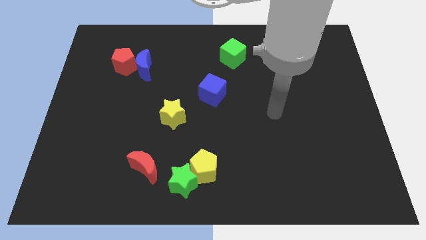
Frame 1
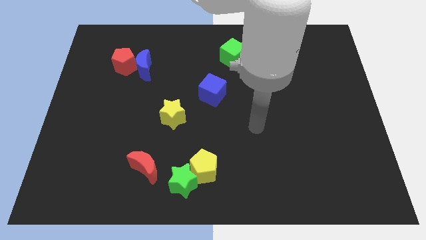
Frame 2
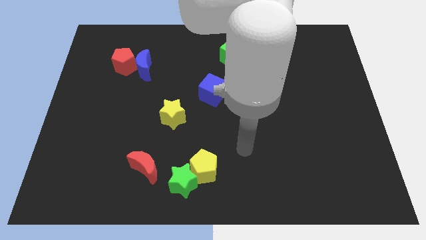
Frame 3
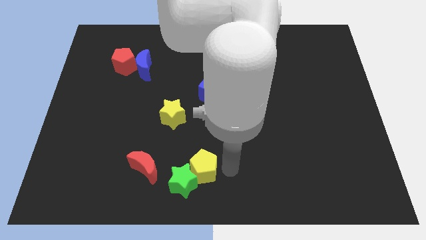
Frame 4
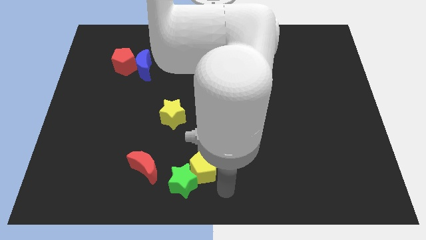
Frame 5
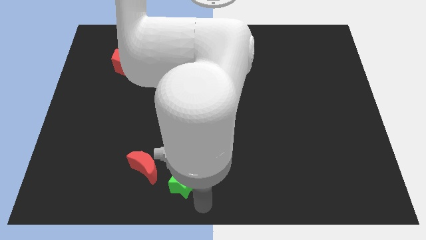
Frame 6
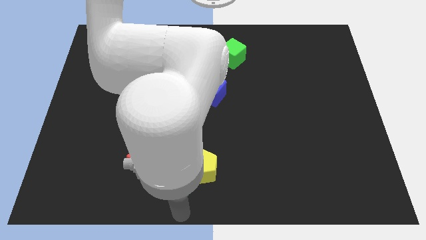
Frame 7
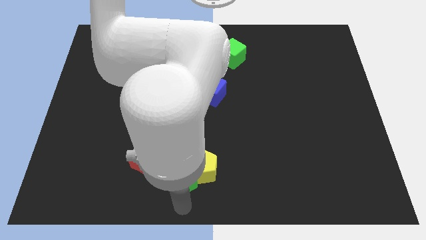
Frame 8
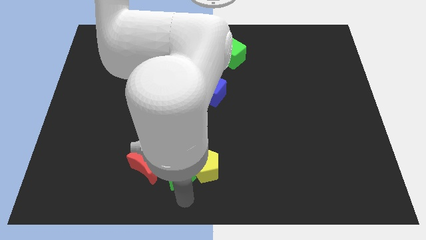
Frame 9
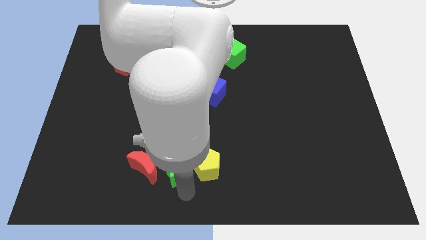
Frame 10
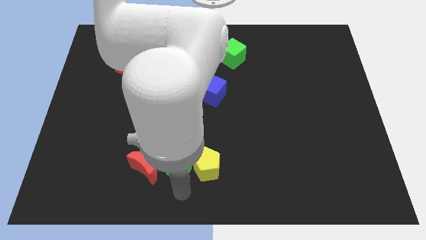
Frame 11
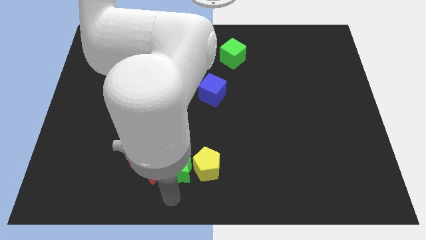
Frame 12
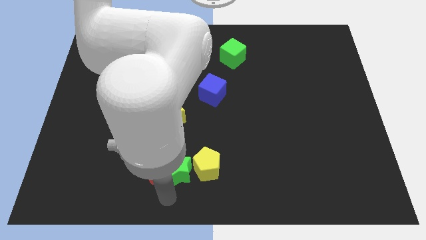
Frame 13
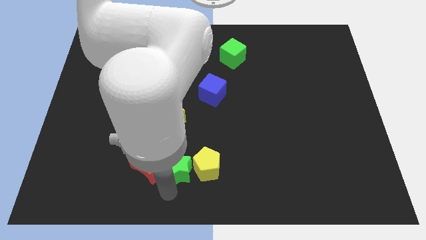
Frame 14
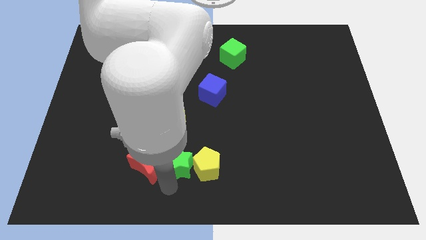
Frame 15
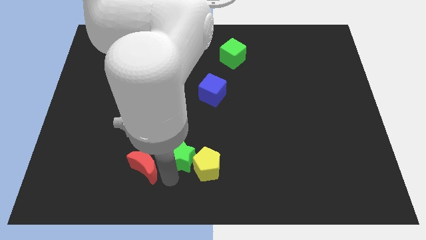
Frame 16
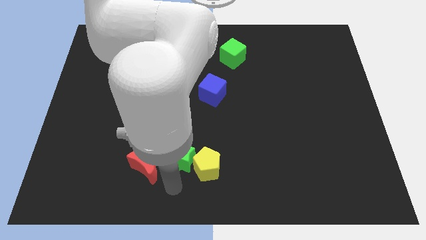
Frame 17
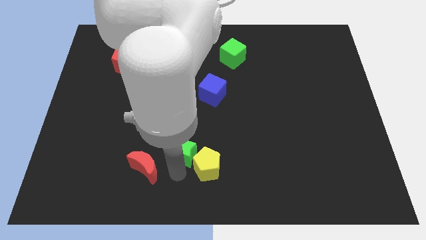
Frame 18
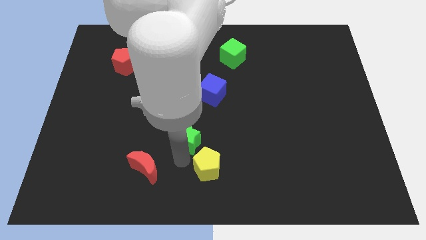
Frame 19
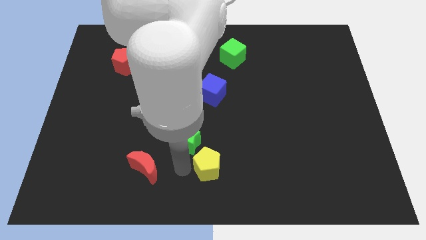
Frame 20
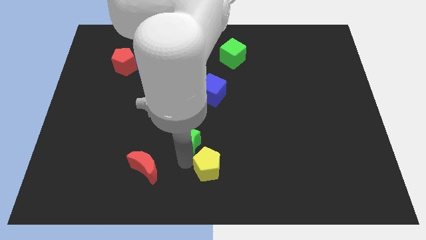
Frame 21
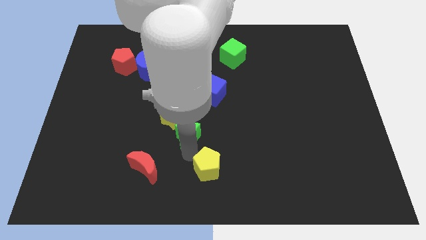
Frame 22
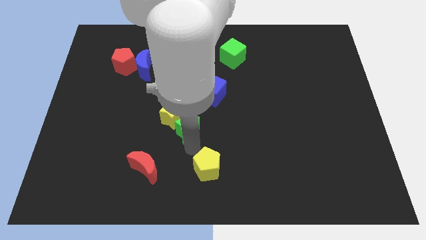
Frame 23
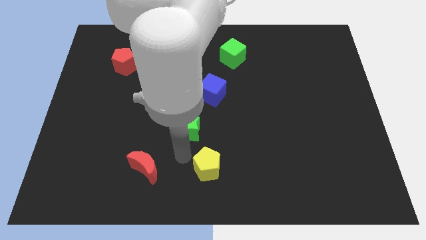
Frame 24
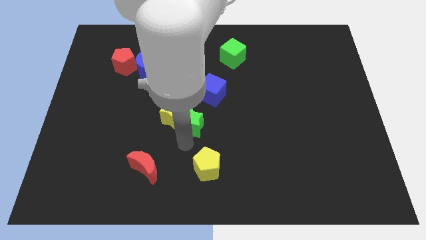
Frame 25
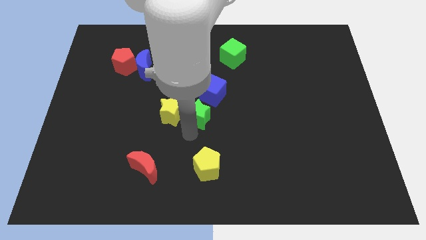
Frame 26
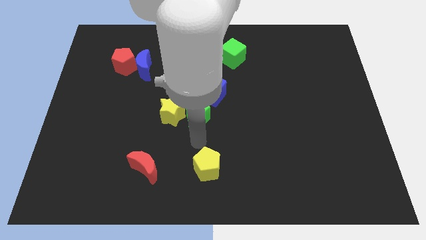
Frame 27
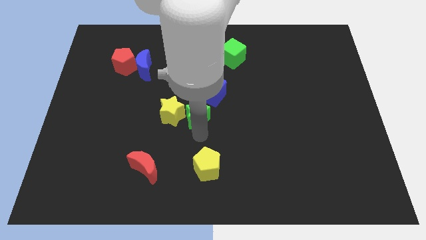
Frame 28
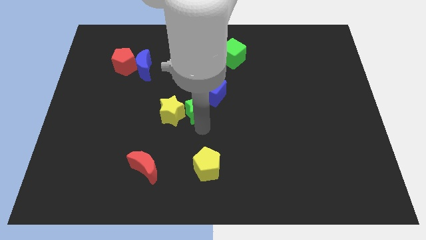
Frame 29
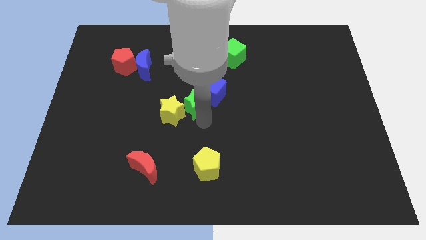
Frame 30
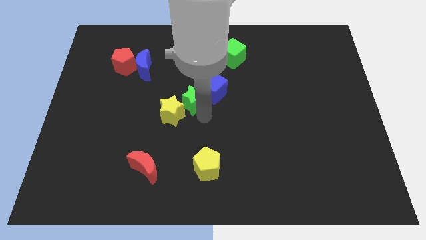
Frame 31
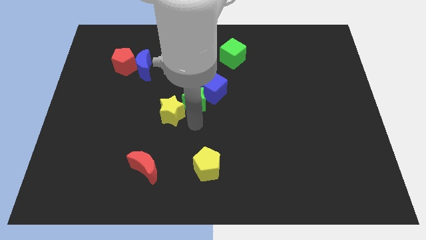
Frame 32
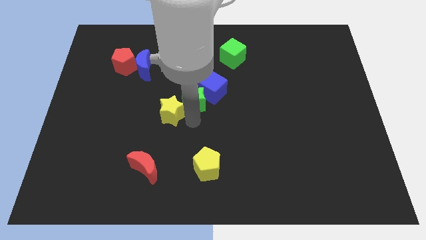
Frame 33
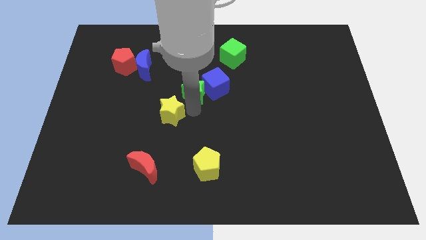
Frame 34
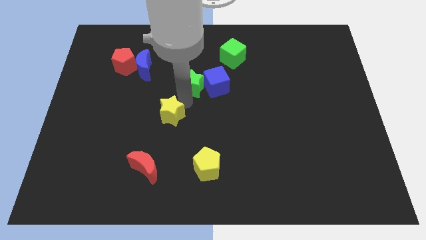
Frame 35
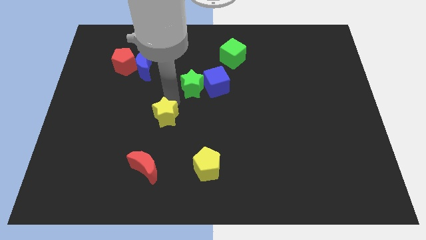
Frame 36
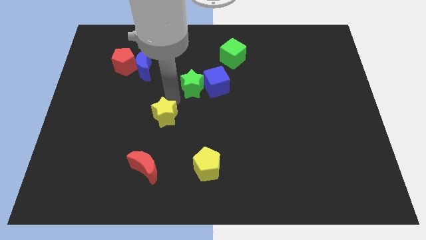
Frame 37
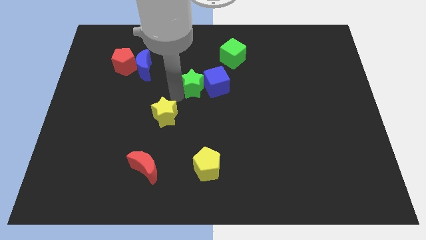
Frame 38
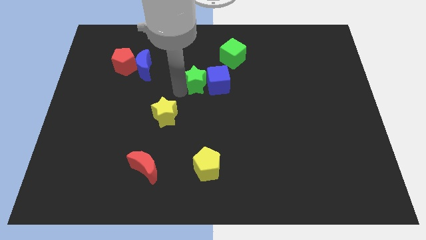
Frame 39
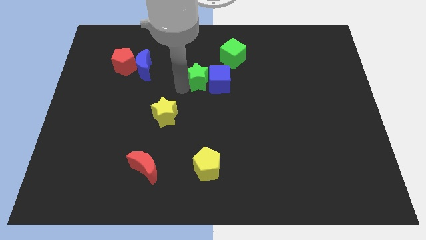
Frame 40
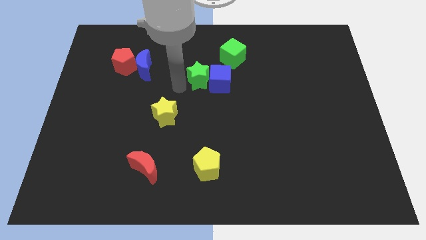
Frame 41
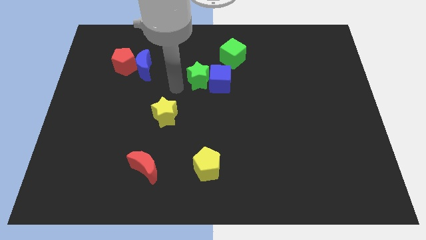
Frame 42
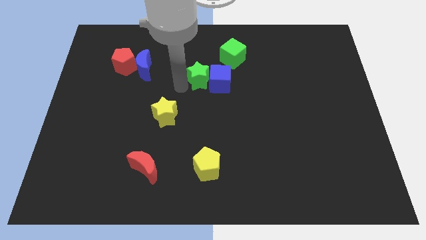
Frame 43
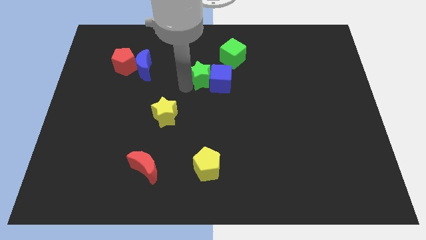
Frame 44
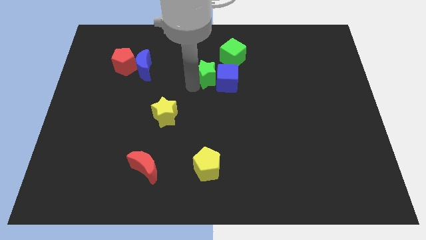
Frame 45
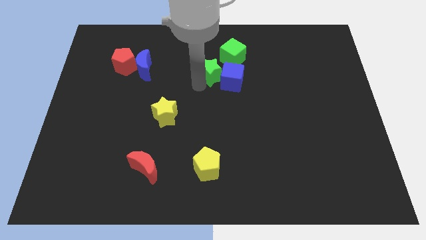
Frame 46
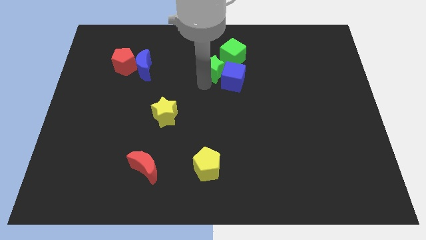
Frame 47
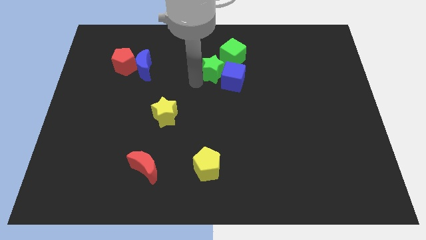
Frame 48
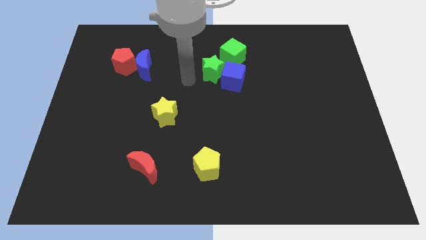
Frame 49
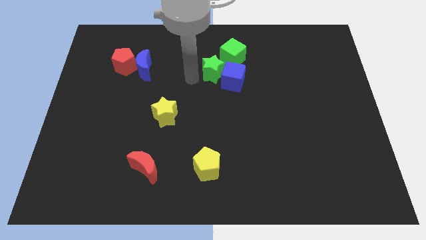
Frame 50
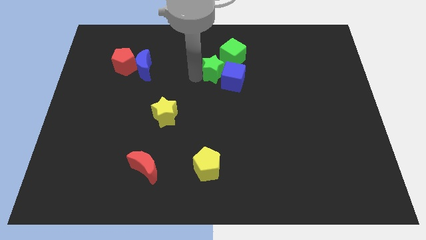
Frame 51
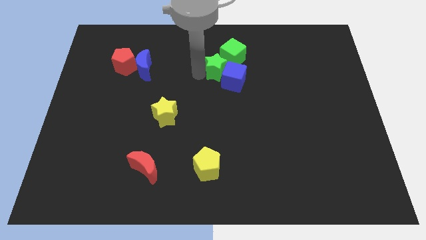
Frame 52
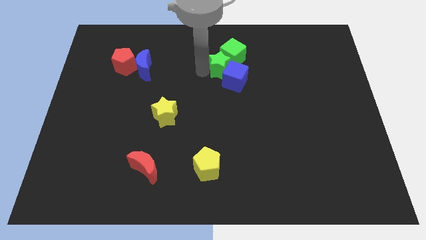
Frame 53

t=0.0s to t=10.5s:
slide the green star close to the green cube

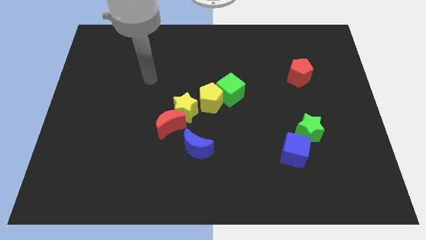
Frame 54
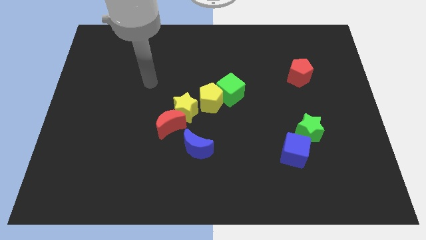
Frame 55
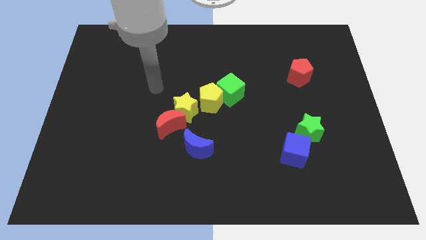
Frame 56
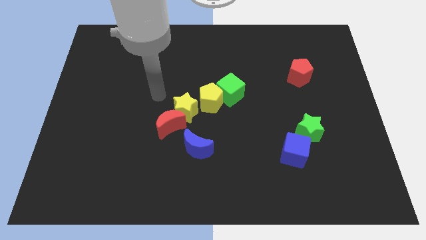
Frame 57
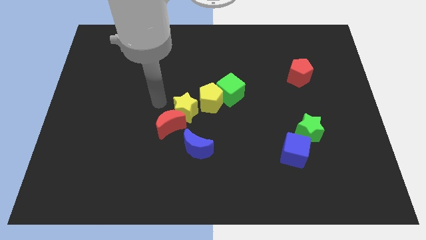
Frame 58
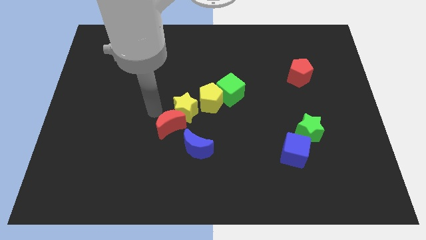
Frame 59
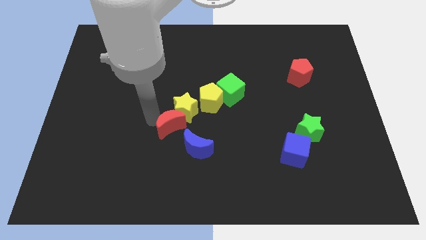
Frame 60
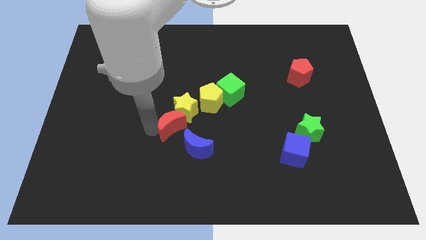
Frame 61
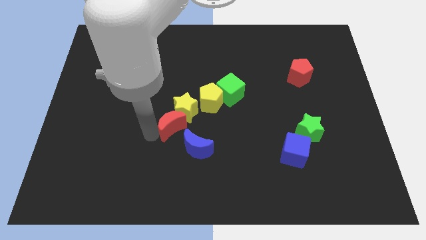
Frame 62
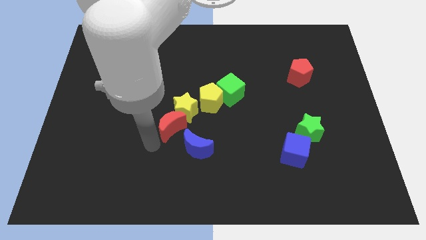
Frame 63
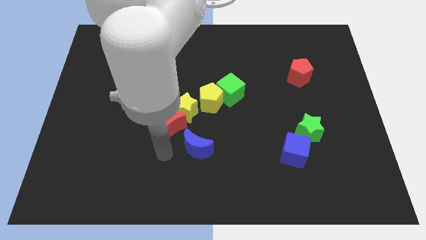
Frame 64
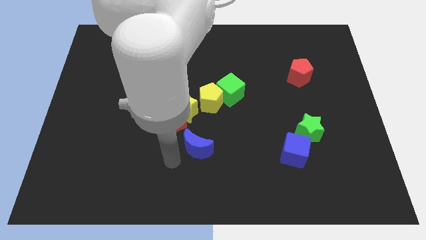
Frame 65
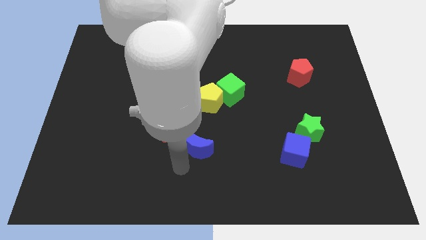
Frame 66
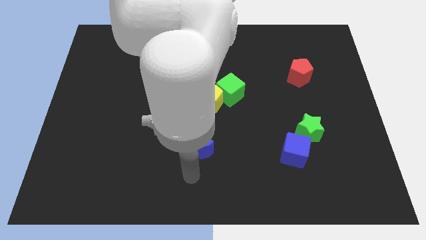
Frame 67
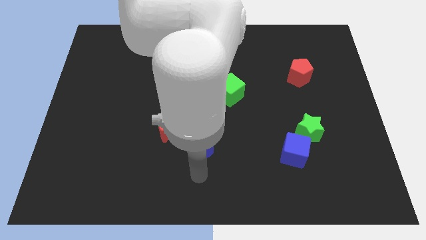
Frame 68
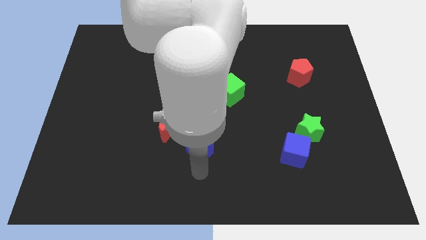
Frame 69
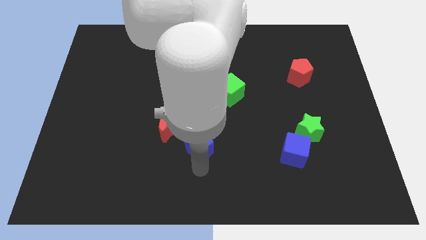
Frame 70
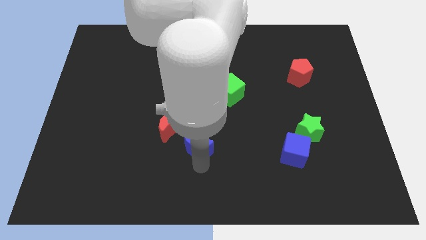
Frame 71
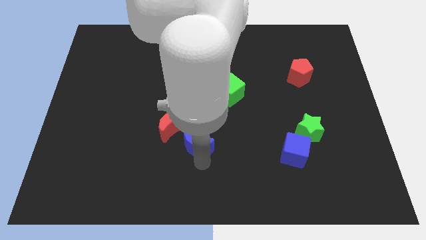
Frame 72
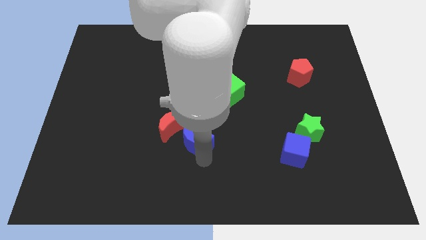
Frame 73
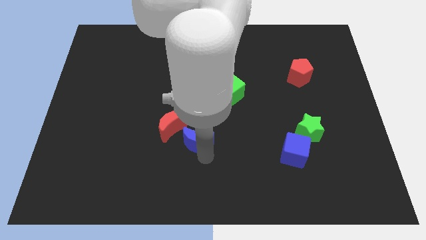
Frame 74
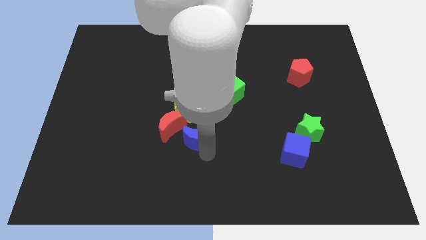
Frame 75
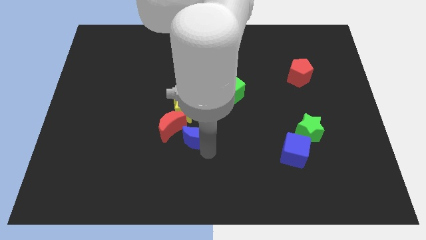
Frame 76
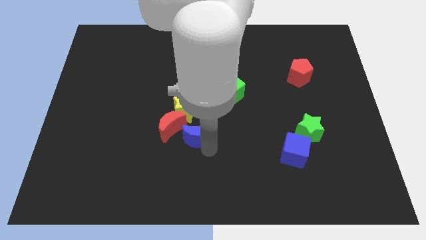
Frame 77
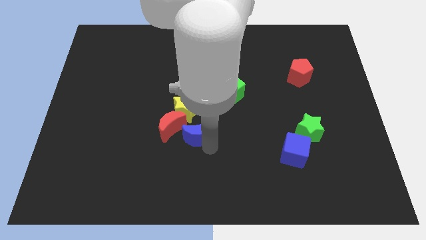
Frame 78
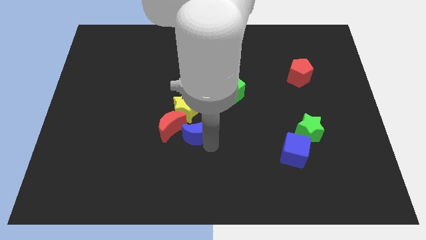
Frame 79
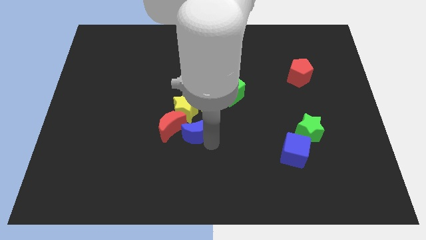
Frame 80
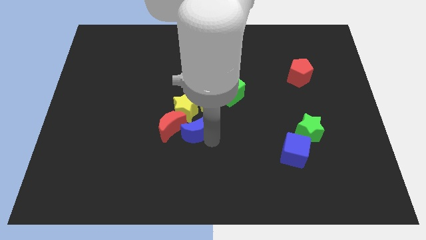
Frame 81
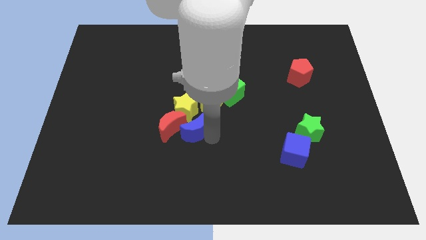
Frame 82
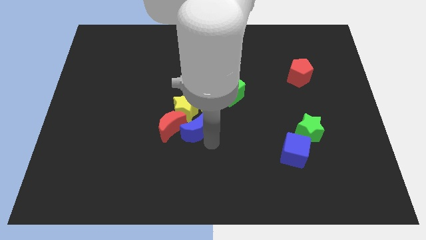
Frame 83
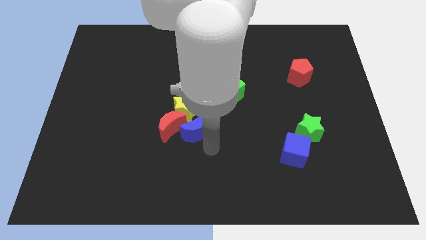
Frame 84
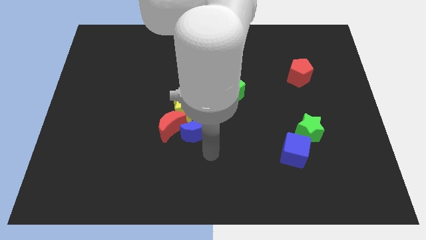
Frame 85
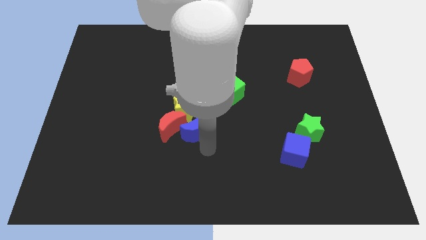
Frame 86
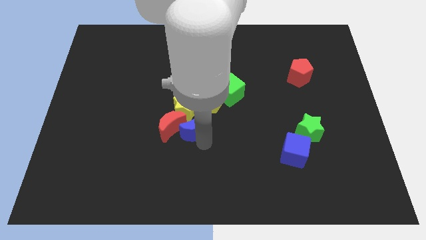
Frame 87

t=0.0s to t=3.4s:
move the blue moon close to the yellow star
